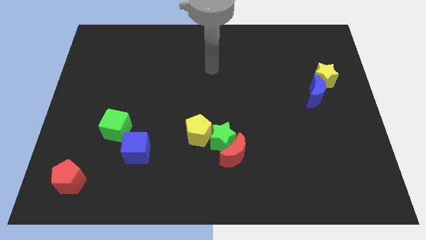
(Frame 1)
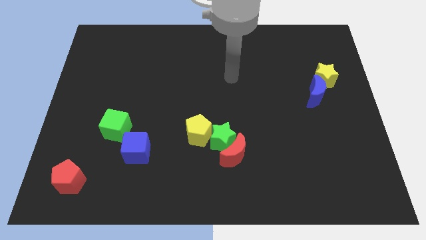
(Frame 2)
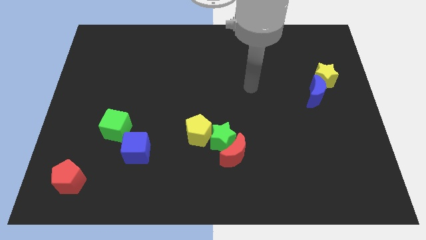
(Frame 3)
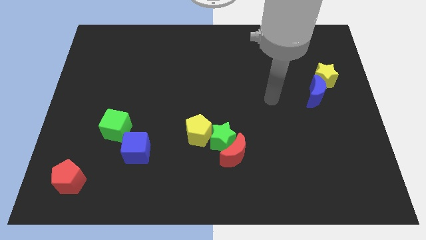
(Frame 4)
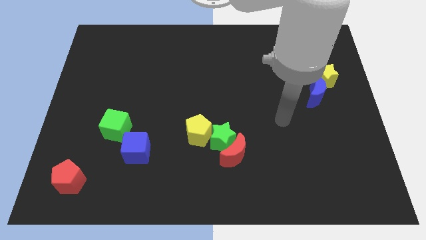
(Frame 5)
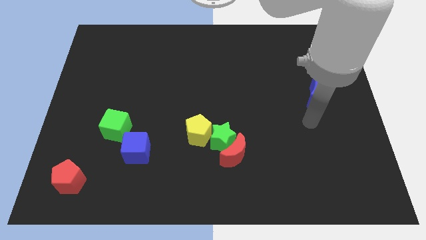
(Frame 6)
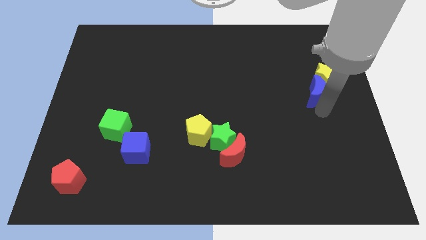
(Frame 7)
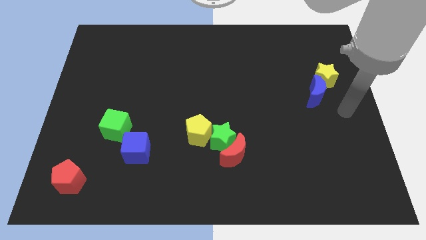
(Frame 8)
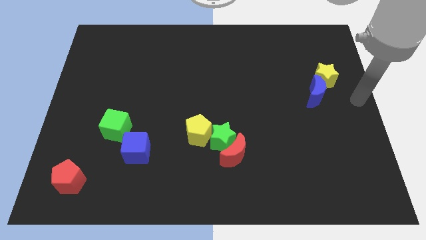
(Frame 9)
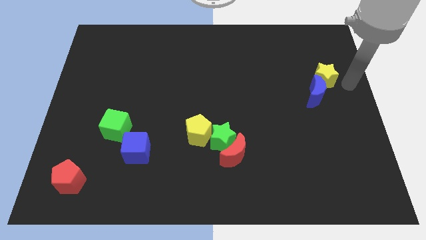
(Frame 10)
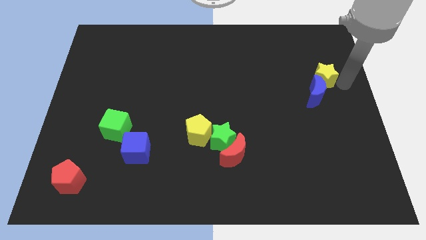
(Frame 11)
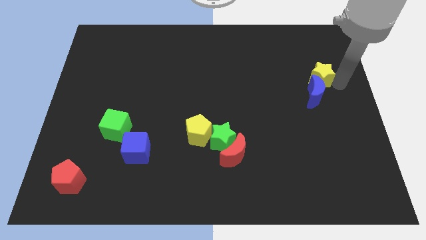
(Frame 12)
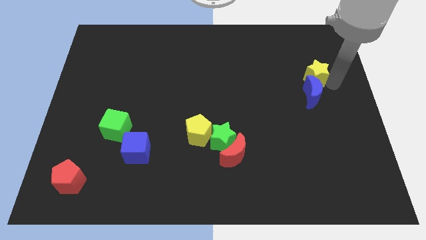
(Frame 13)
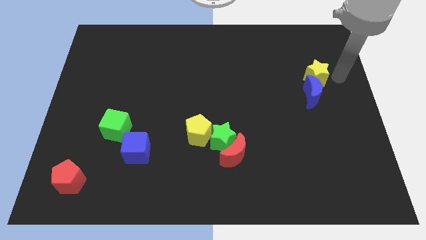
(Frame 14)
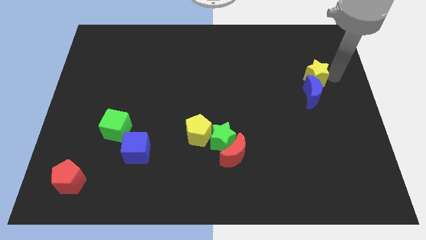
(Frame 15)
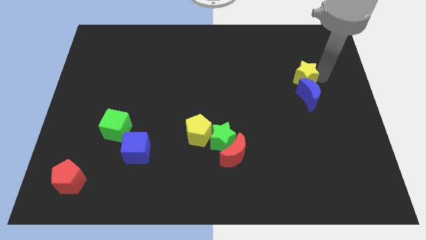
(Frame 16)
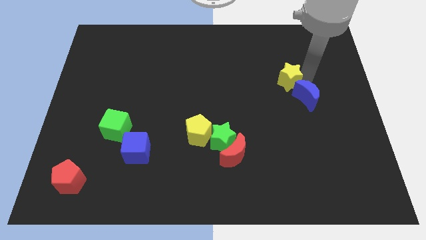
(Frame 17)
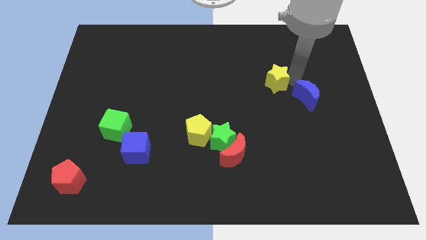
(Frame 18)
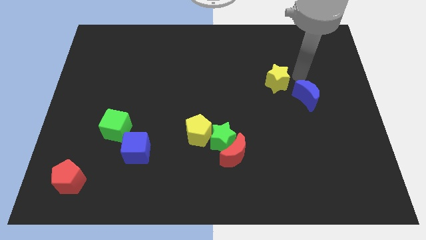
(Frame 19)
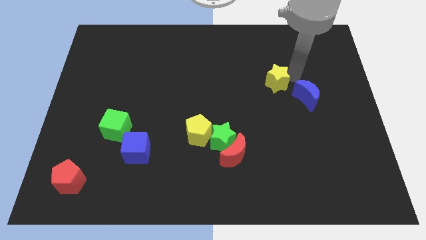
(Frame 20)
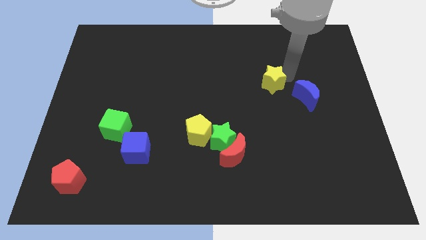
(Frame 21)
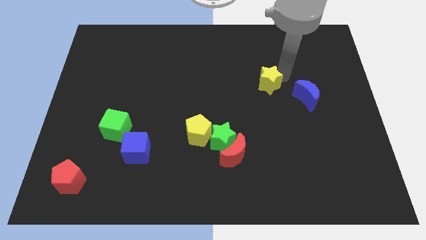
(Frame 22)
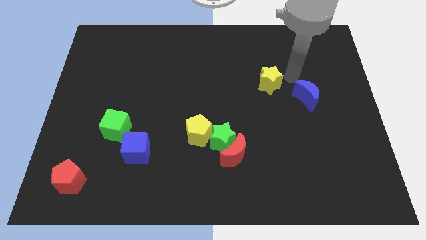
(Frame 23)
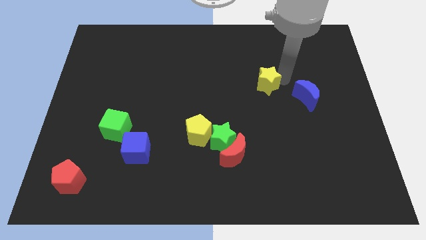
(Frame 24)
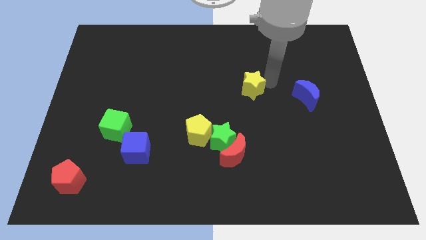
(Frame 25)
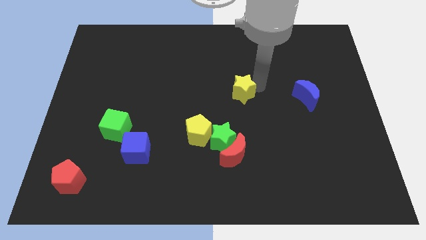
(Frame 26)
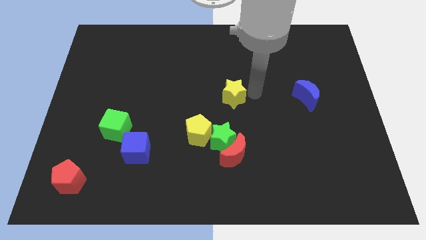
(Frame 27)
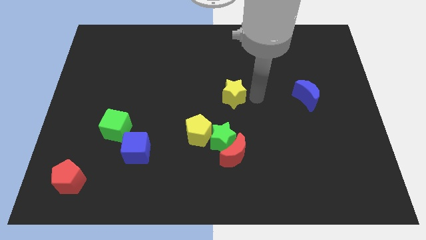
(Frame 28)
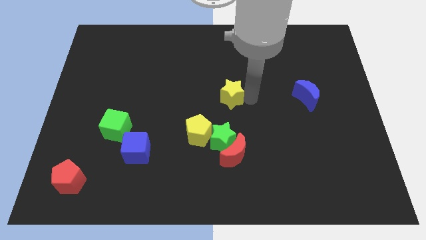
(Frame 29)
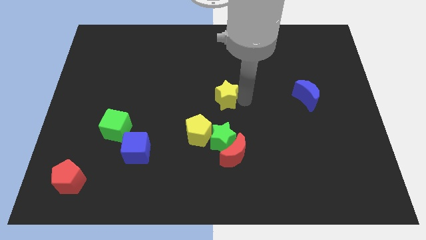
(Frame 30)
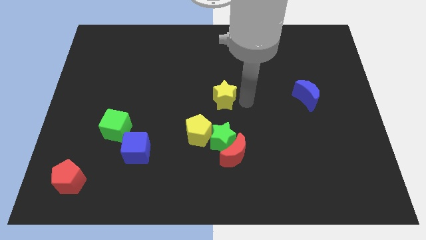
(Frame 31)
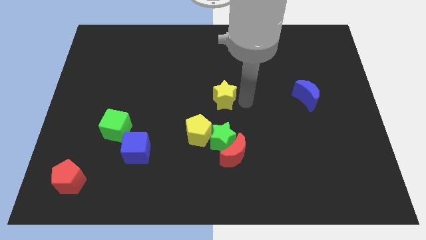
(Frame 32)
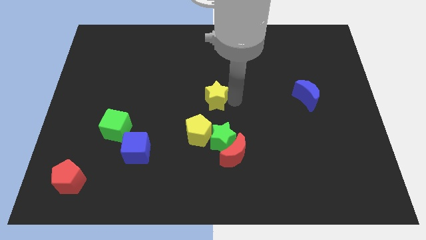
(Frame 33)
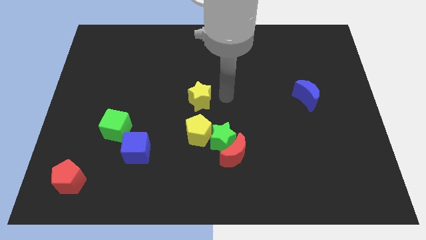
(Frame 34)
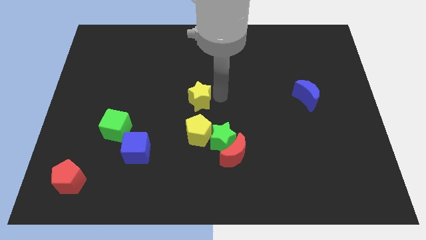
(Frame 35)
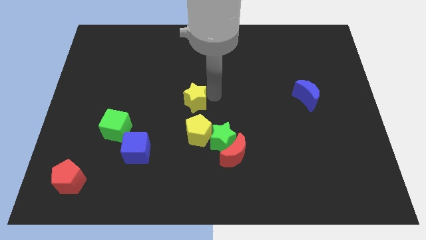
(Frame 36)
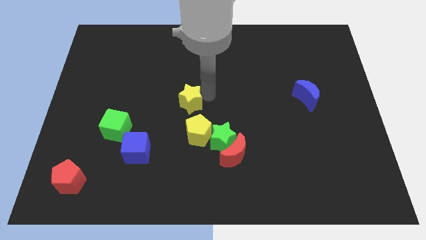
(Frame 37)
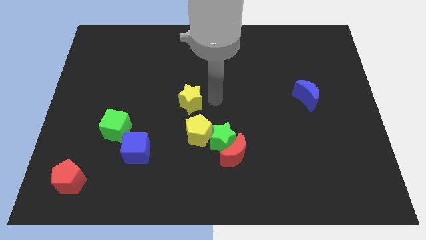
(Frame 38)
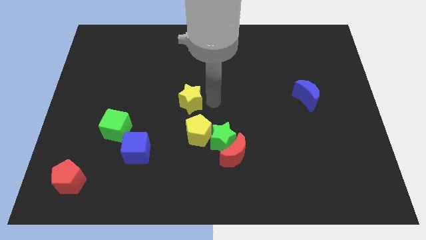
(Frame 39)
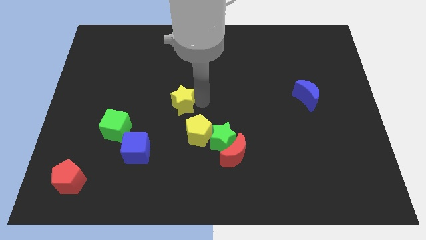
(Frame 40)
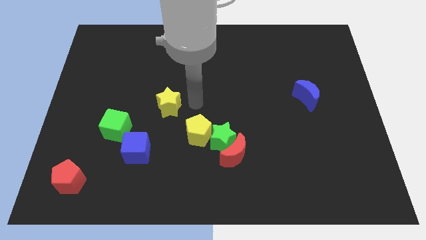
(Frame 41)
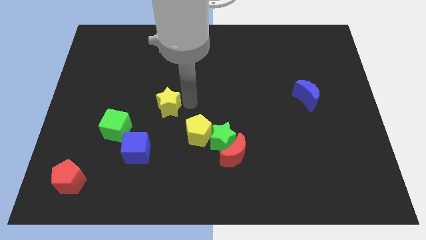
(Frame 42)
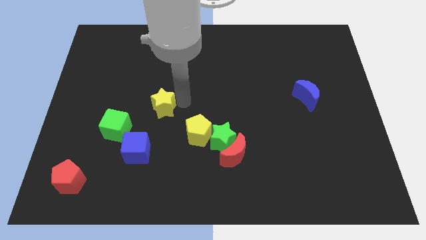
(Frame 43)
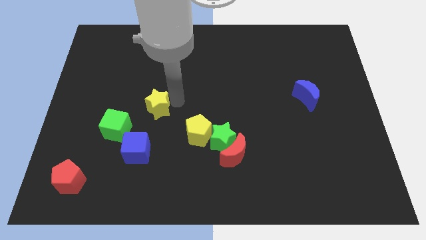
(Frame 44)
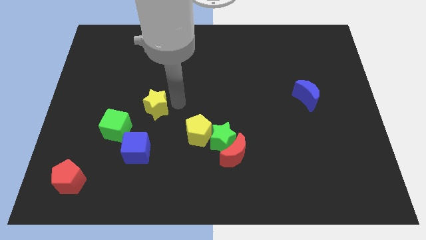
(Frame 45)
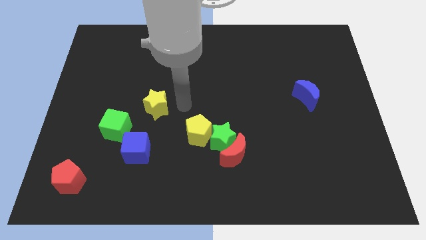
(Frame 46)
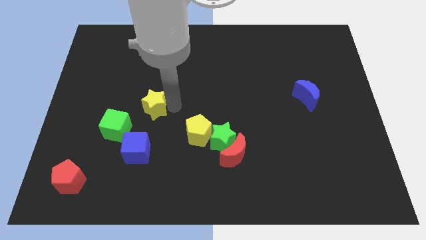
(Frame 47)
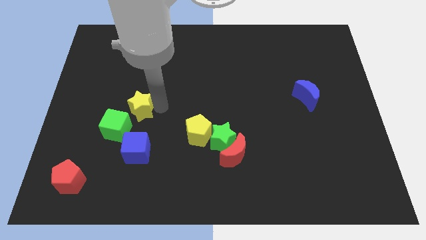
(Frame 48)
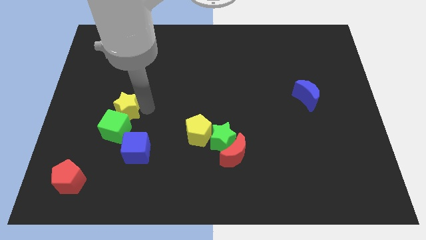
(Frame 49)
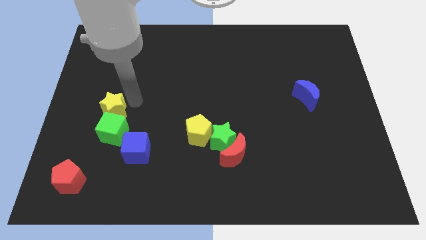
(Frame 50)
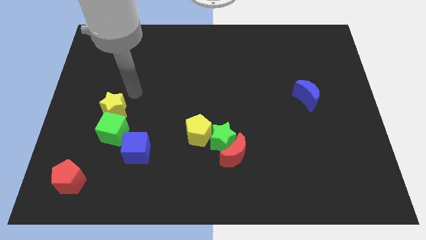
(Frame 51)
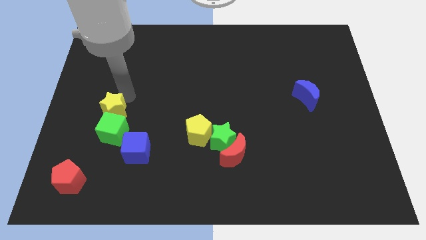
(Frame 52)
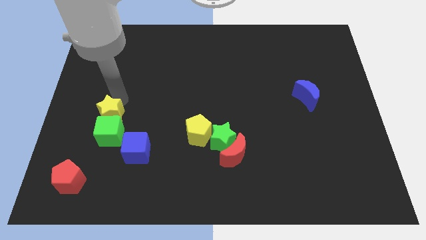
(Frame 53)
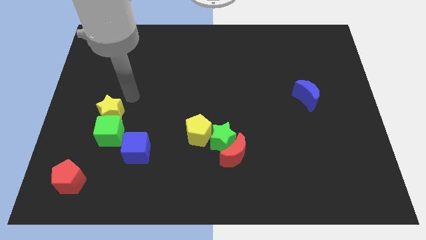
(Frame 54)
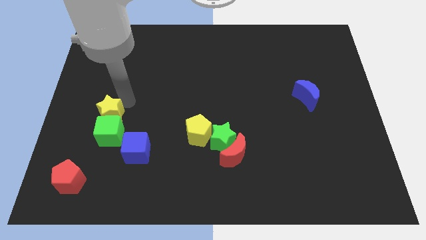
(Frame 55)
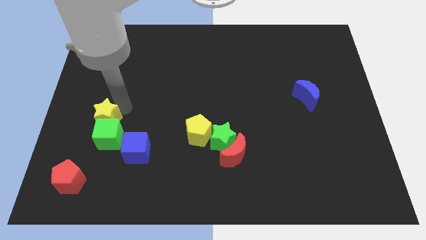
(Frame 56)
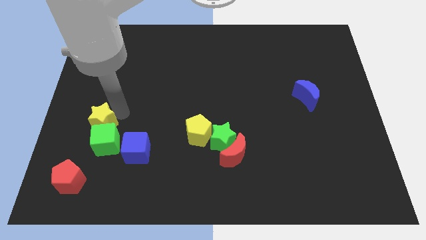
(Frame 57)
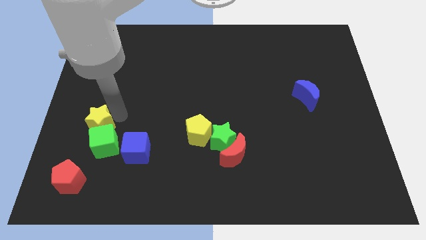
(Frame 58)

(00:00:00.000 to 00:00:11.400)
put the yellow star to the top of the red pentagon

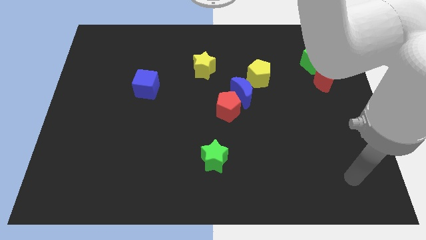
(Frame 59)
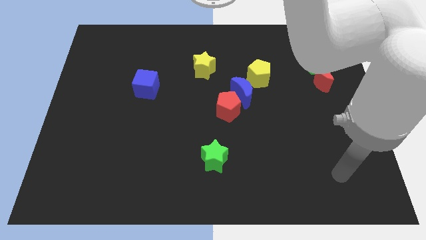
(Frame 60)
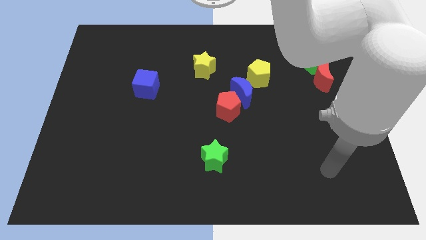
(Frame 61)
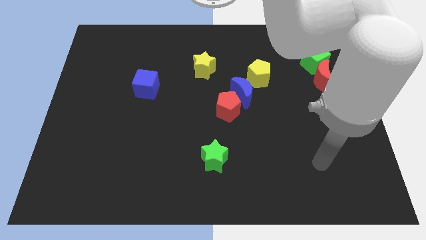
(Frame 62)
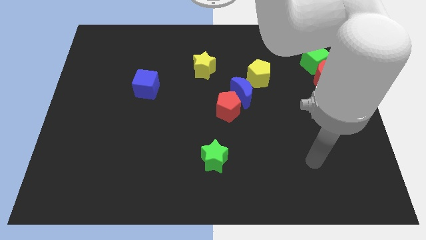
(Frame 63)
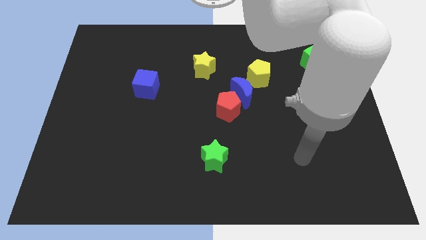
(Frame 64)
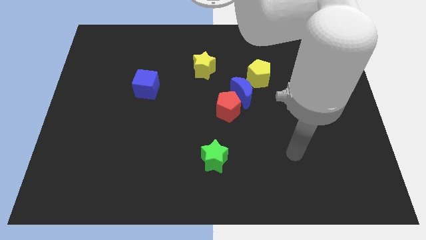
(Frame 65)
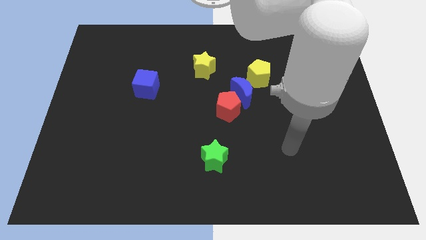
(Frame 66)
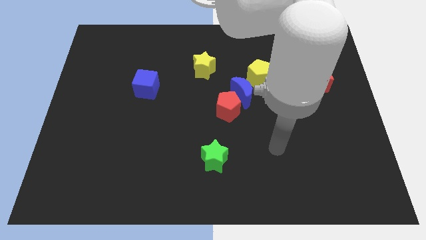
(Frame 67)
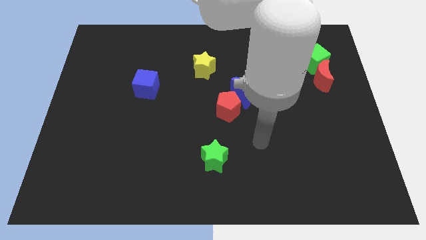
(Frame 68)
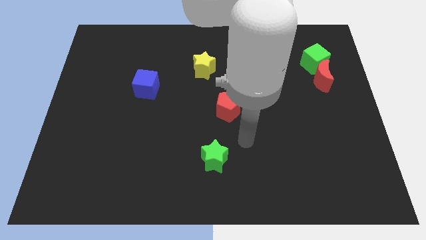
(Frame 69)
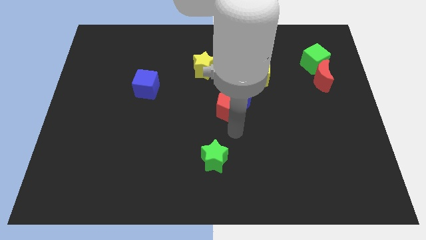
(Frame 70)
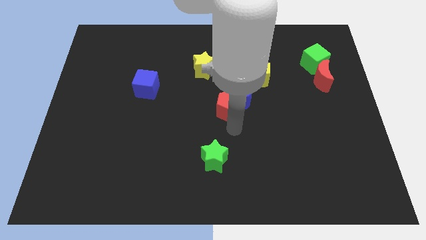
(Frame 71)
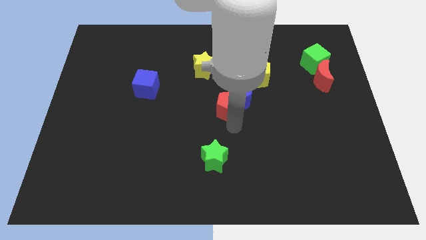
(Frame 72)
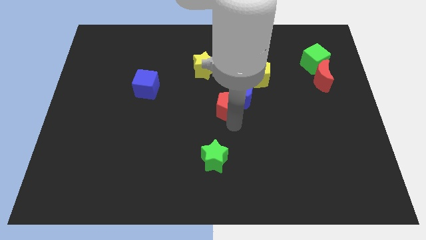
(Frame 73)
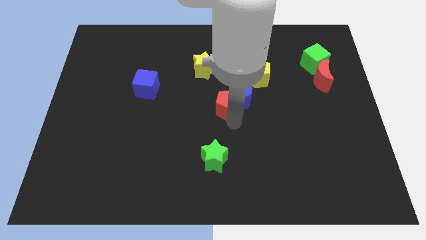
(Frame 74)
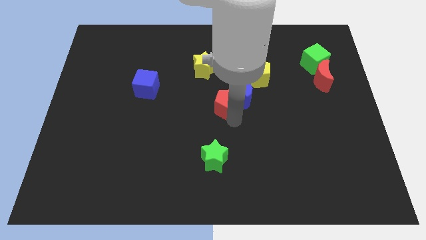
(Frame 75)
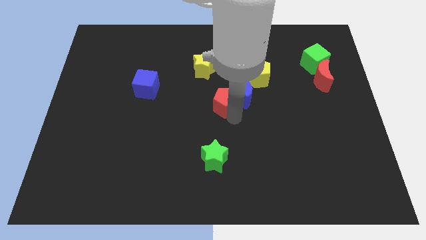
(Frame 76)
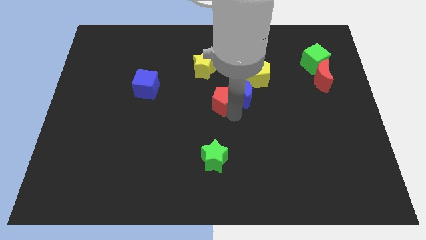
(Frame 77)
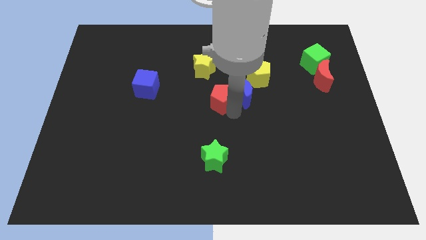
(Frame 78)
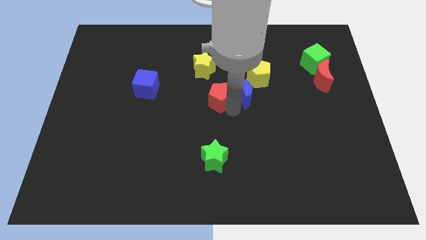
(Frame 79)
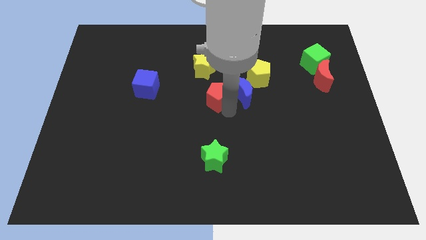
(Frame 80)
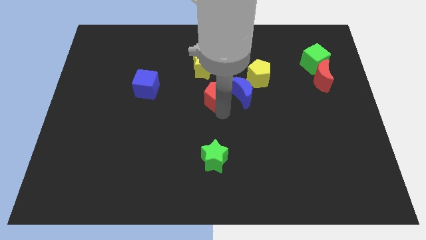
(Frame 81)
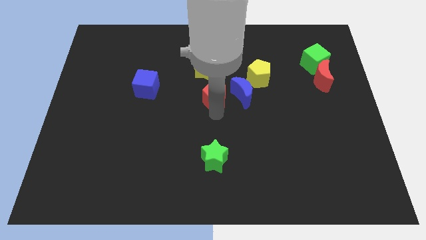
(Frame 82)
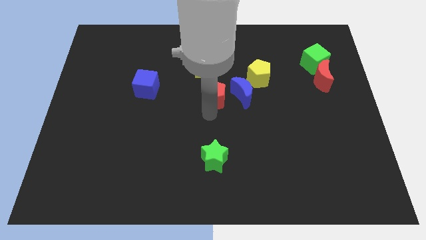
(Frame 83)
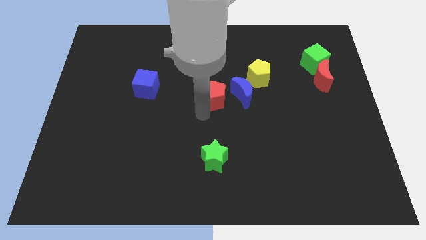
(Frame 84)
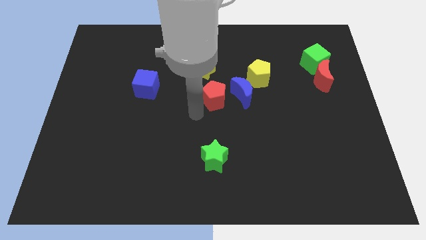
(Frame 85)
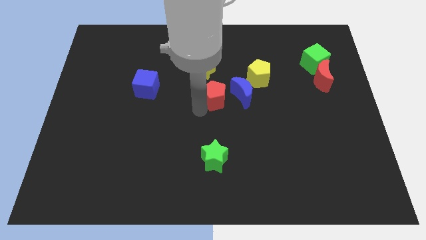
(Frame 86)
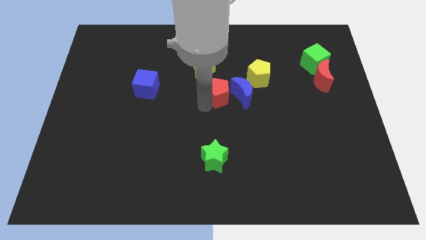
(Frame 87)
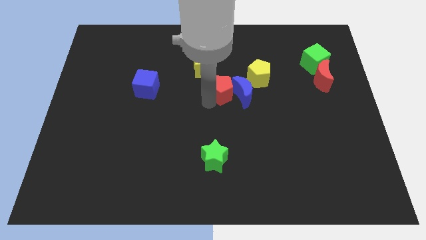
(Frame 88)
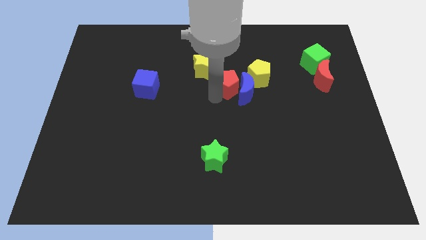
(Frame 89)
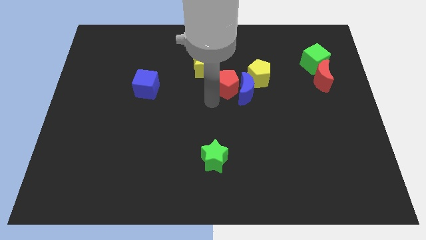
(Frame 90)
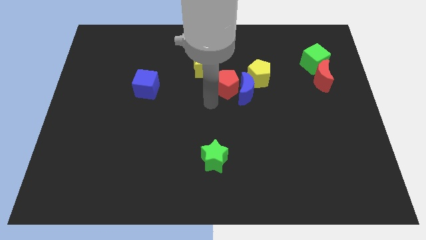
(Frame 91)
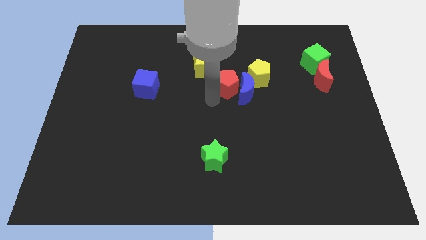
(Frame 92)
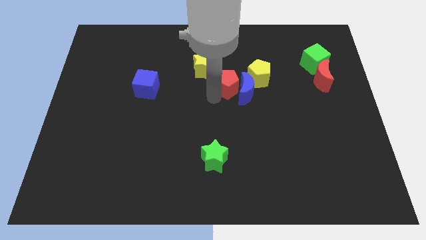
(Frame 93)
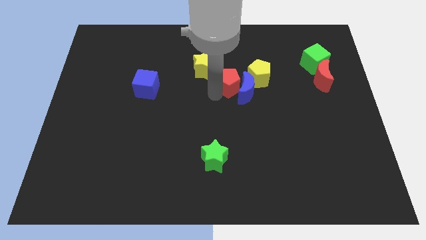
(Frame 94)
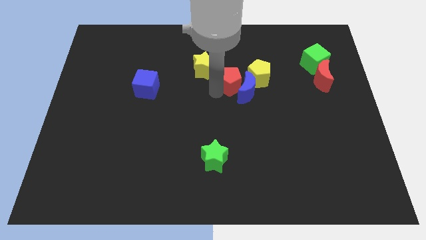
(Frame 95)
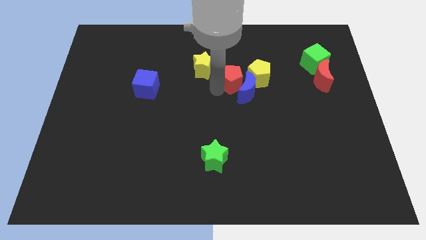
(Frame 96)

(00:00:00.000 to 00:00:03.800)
move the red pentagon just right of the yellow star
